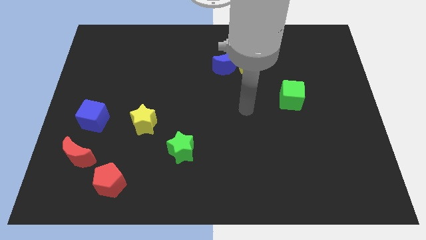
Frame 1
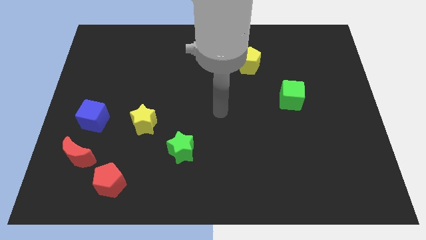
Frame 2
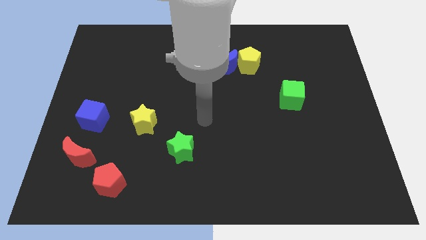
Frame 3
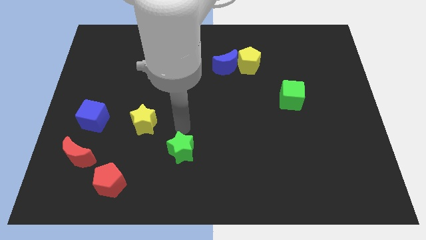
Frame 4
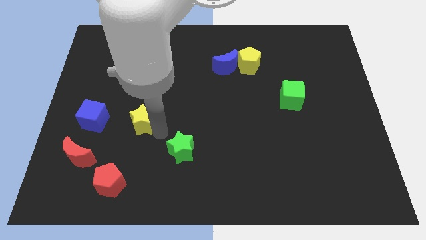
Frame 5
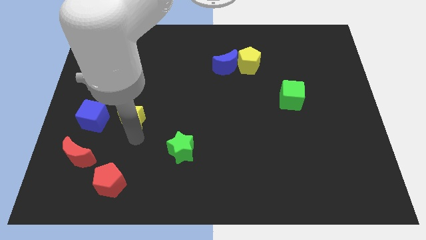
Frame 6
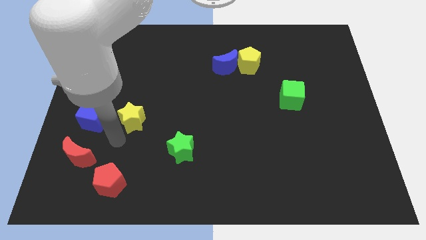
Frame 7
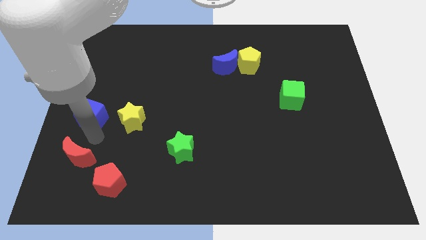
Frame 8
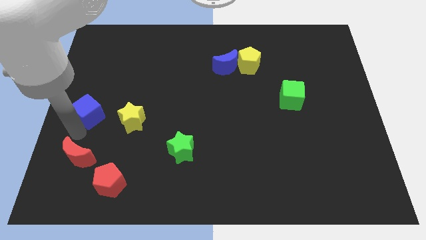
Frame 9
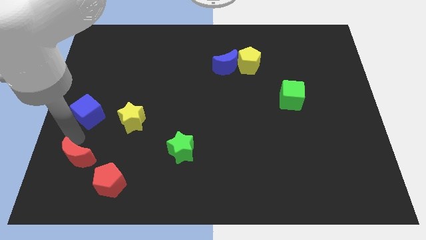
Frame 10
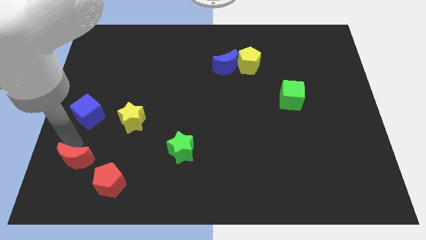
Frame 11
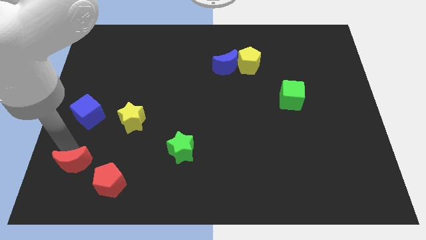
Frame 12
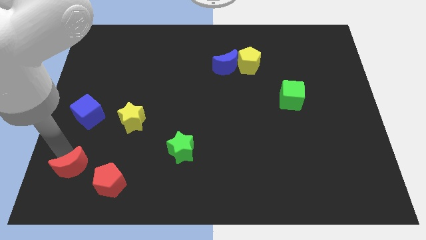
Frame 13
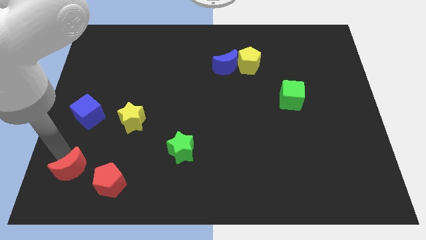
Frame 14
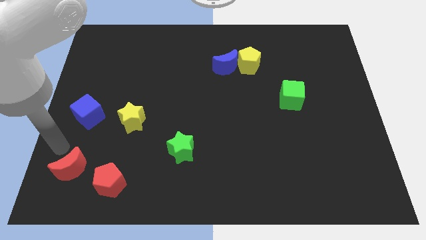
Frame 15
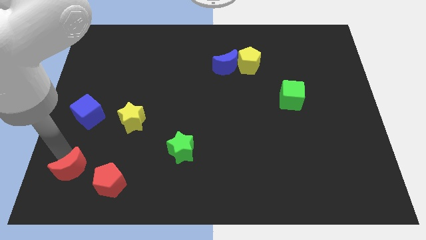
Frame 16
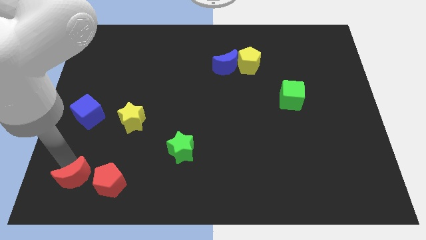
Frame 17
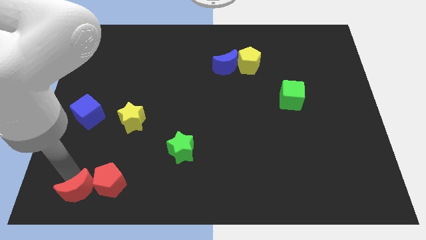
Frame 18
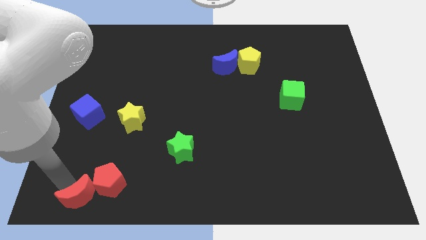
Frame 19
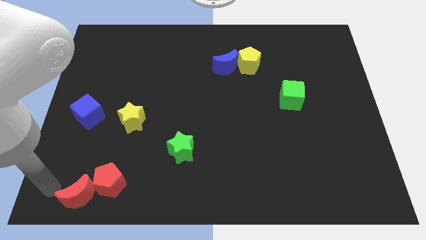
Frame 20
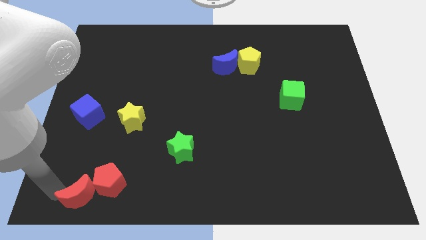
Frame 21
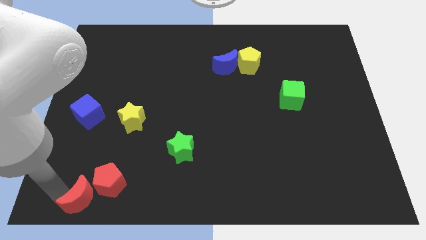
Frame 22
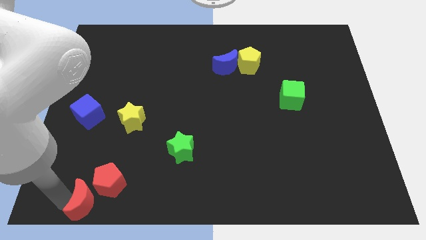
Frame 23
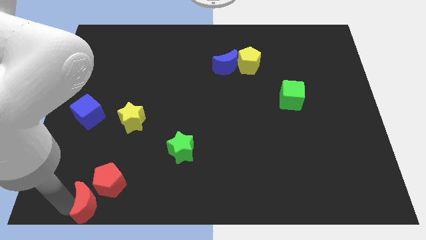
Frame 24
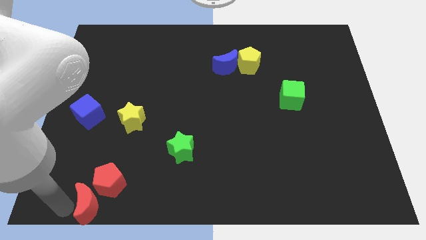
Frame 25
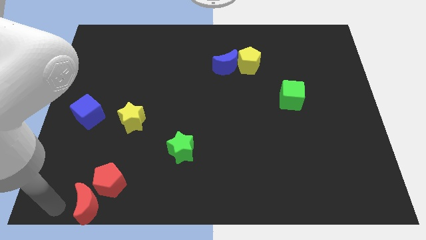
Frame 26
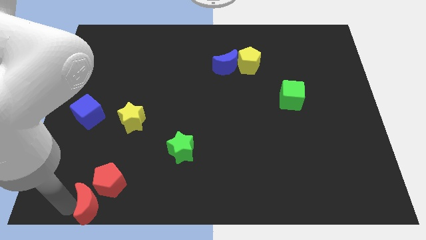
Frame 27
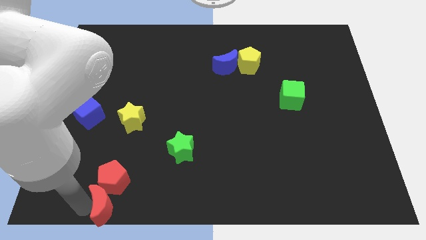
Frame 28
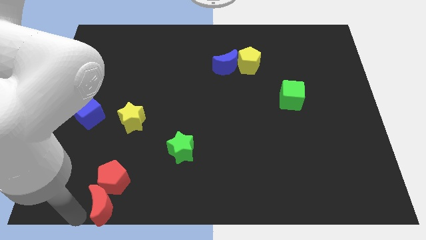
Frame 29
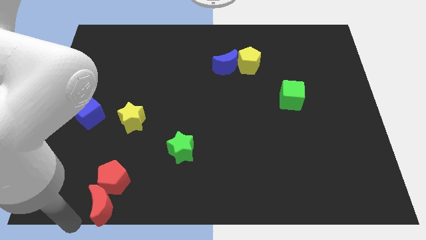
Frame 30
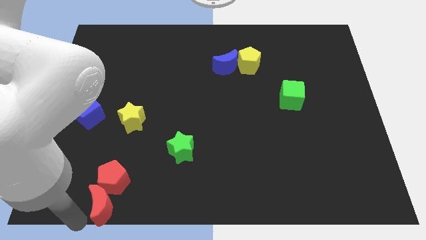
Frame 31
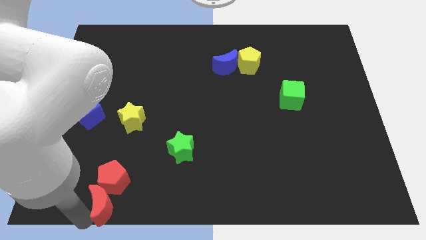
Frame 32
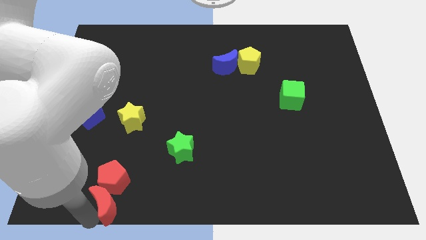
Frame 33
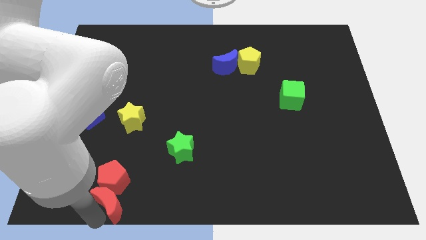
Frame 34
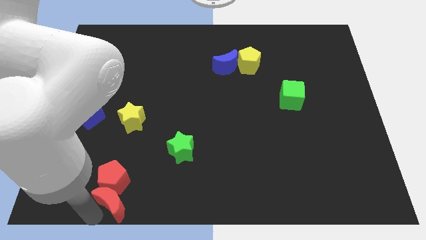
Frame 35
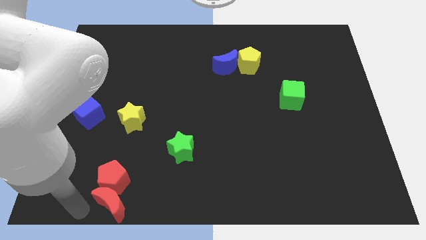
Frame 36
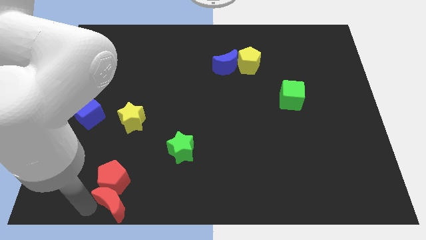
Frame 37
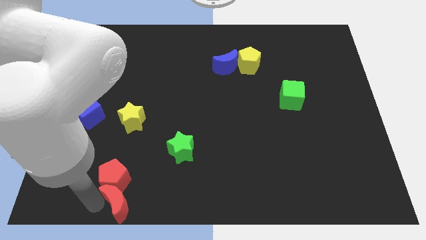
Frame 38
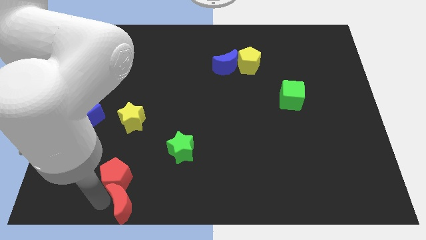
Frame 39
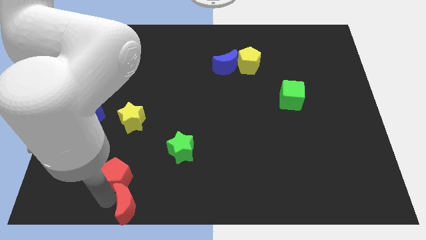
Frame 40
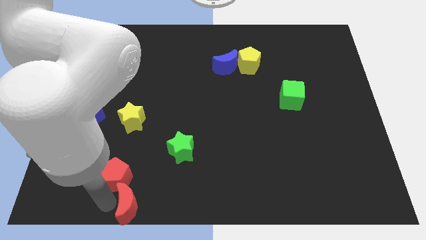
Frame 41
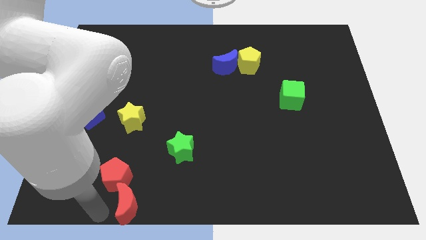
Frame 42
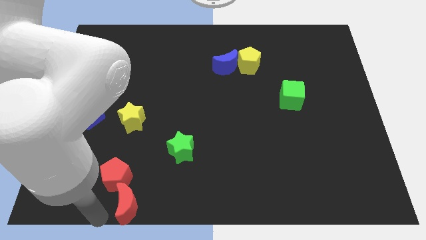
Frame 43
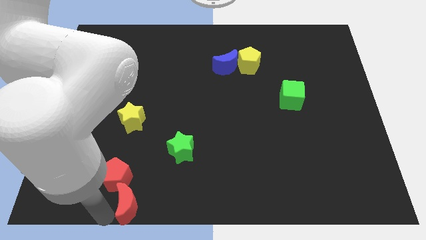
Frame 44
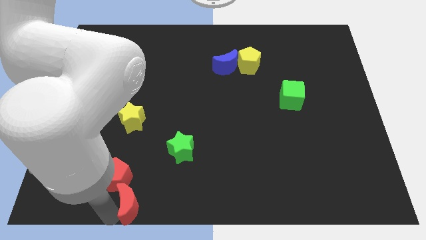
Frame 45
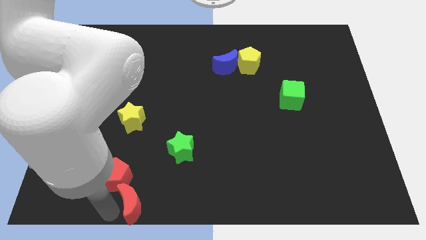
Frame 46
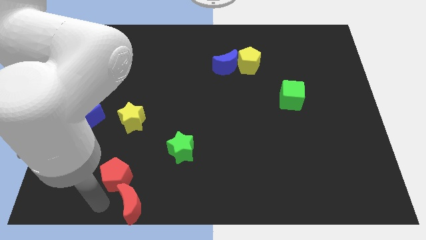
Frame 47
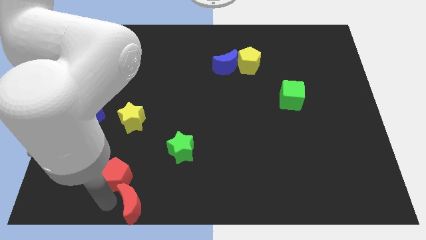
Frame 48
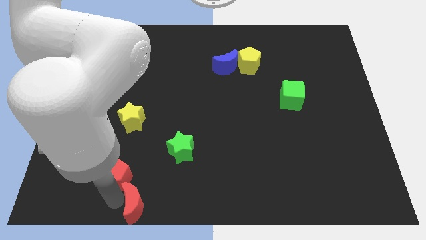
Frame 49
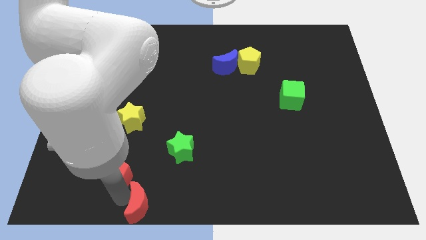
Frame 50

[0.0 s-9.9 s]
put the red moon to the bottom side
